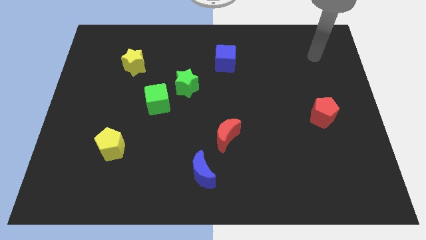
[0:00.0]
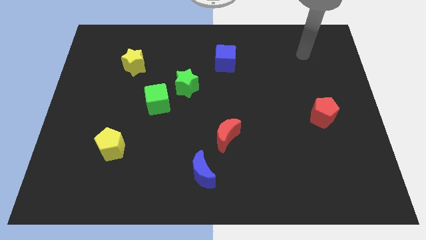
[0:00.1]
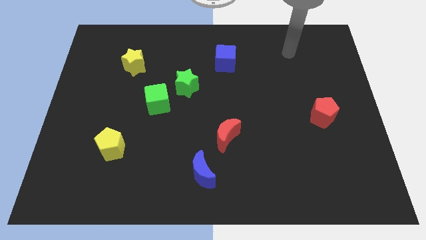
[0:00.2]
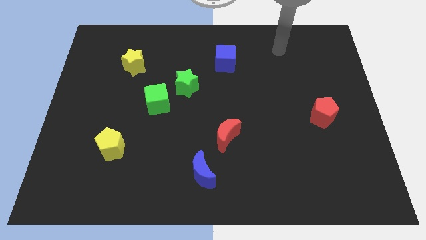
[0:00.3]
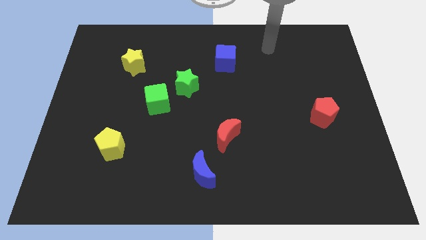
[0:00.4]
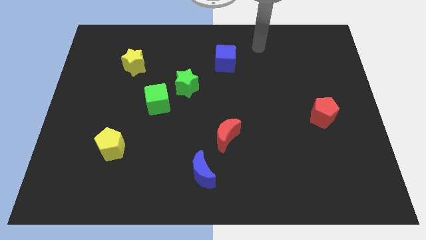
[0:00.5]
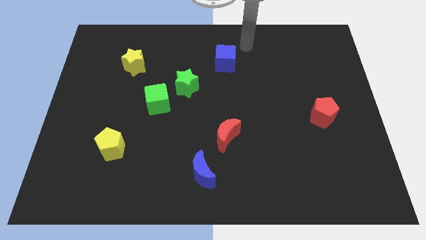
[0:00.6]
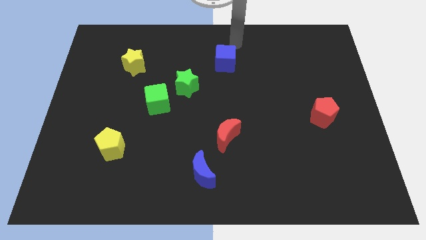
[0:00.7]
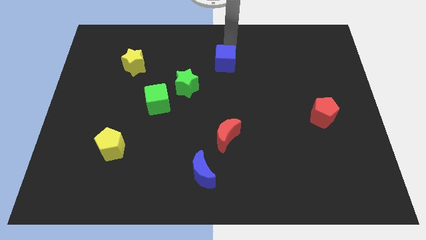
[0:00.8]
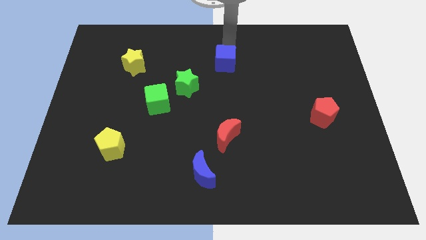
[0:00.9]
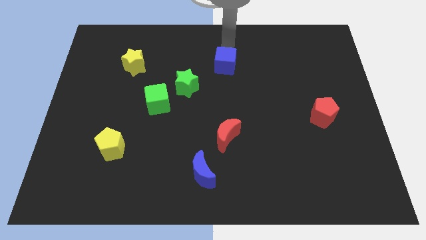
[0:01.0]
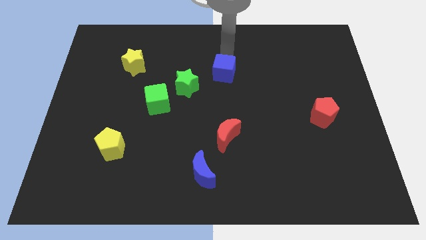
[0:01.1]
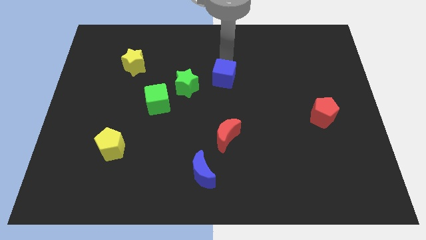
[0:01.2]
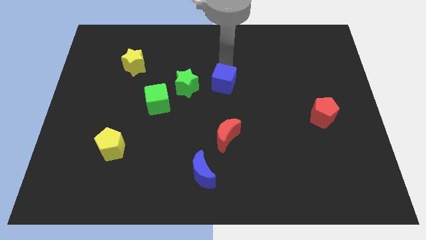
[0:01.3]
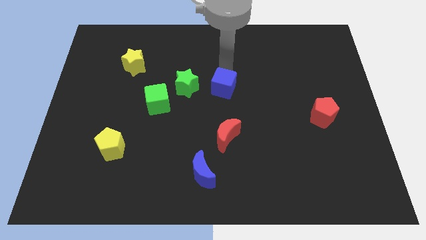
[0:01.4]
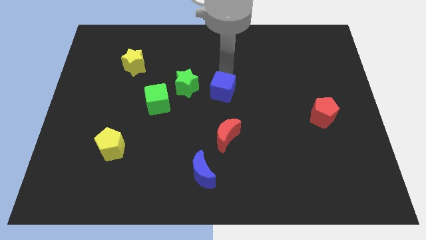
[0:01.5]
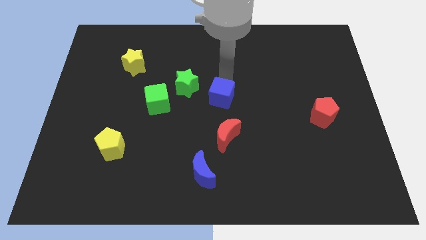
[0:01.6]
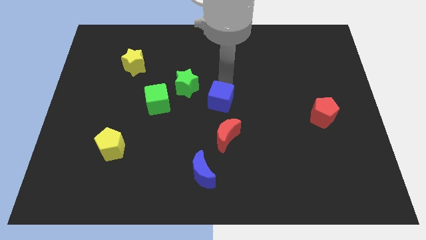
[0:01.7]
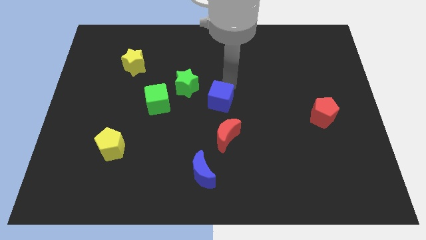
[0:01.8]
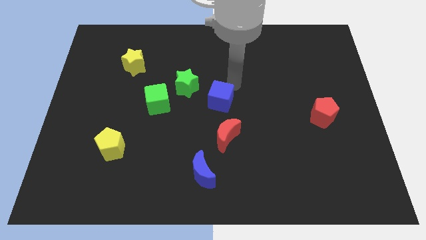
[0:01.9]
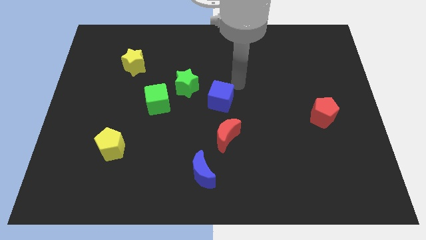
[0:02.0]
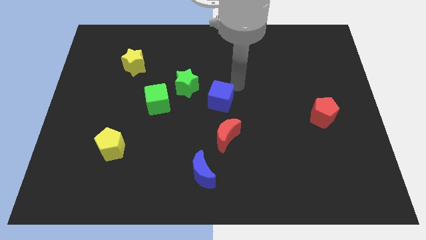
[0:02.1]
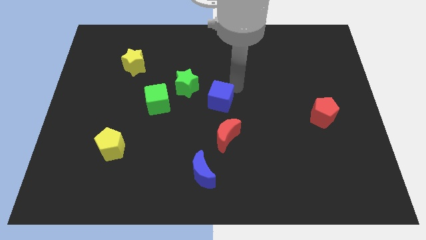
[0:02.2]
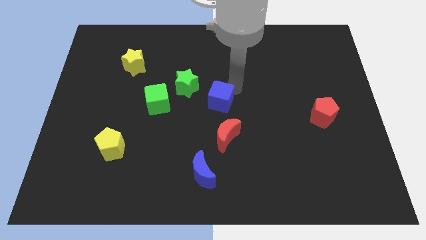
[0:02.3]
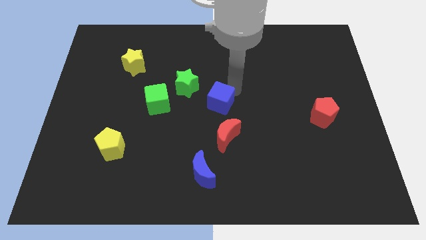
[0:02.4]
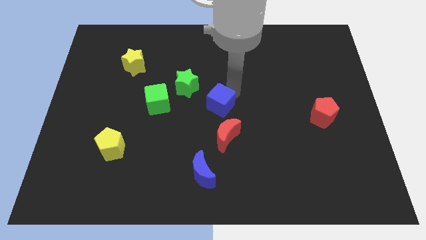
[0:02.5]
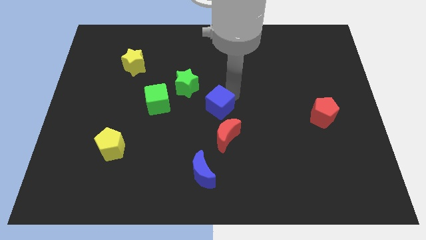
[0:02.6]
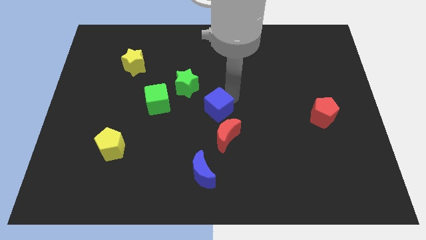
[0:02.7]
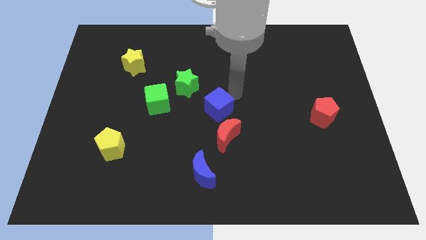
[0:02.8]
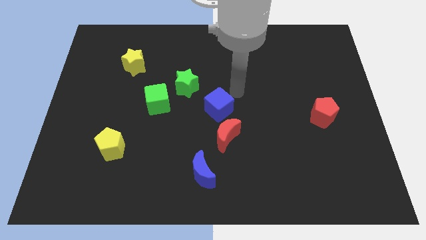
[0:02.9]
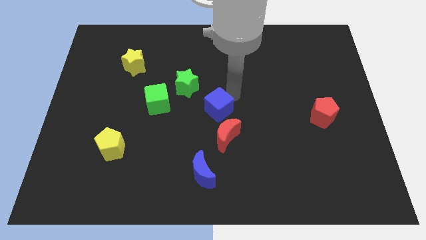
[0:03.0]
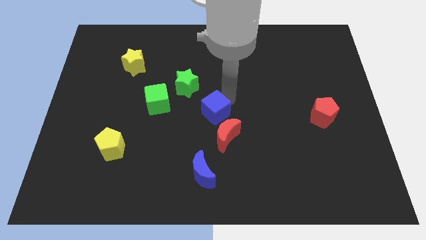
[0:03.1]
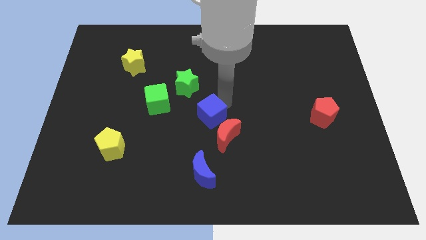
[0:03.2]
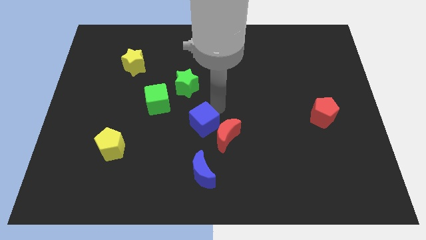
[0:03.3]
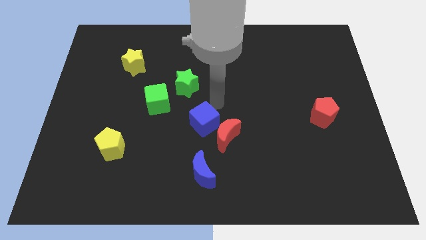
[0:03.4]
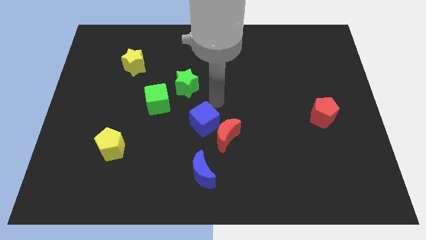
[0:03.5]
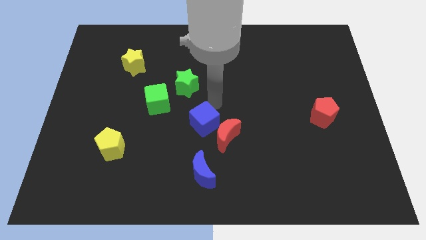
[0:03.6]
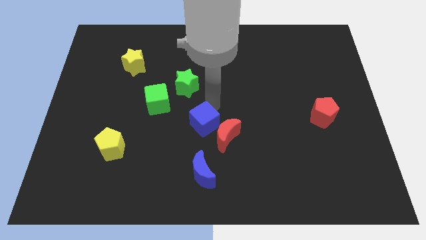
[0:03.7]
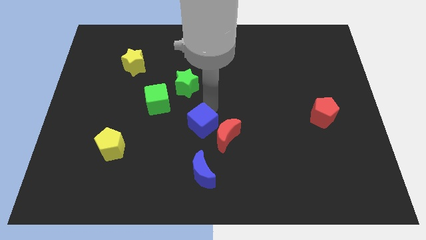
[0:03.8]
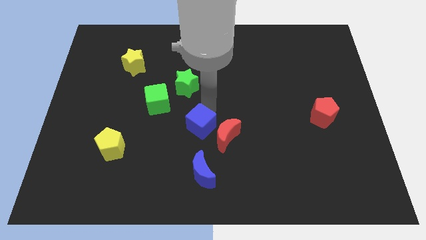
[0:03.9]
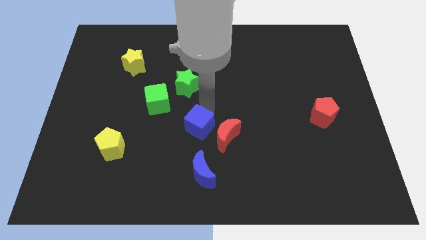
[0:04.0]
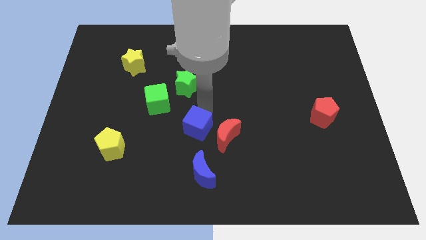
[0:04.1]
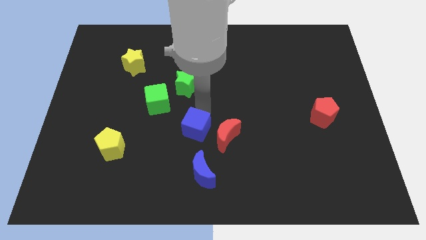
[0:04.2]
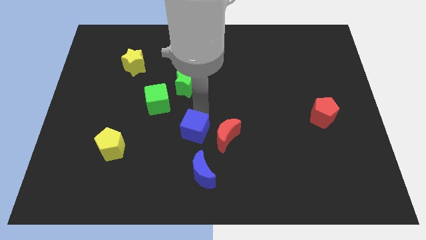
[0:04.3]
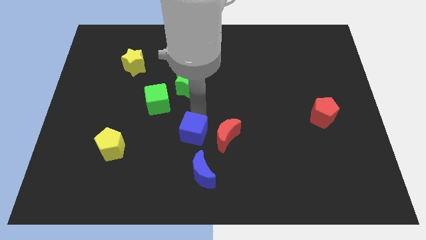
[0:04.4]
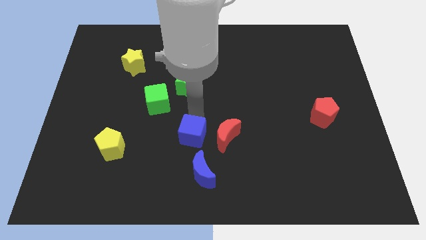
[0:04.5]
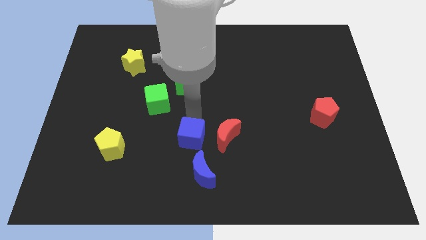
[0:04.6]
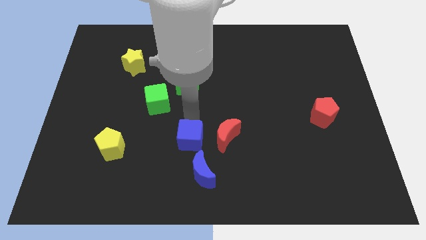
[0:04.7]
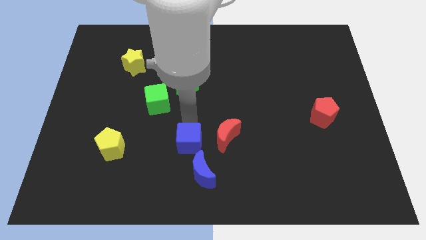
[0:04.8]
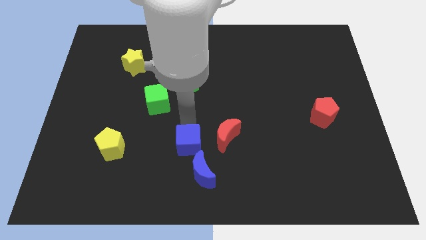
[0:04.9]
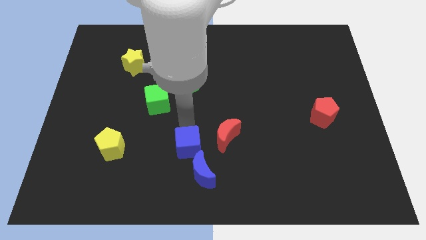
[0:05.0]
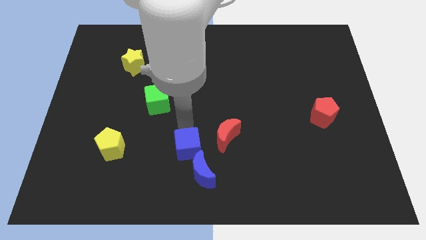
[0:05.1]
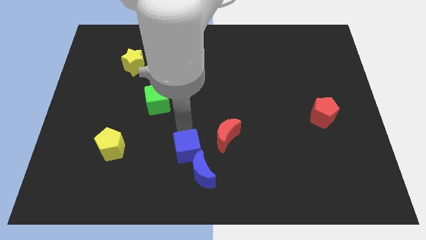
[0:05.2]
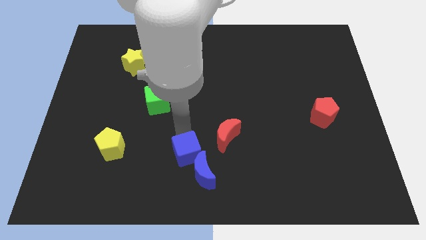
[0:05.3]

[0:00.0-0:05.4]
put the blue cube close to the blue moon

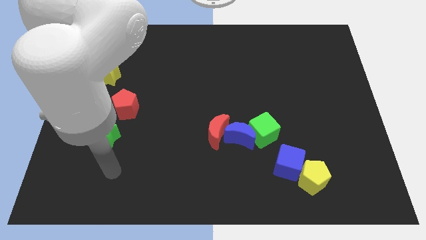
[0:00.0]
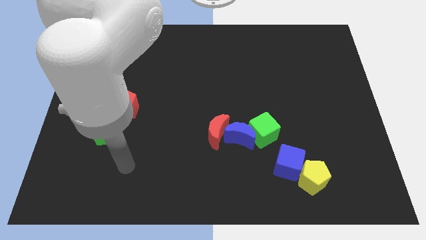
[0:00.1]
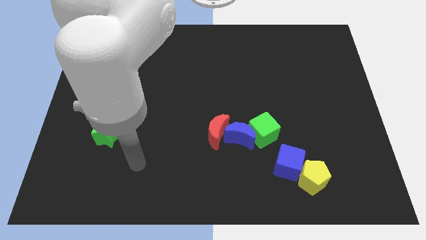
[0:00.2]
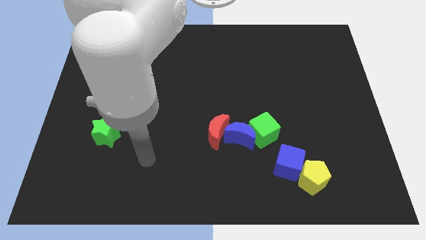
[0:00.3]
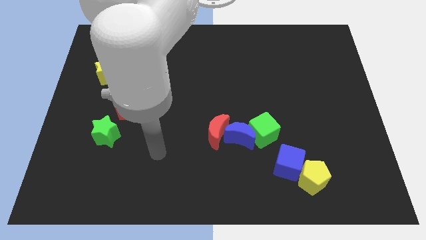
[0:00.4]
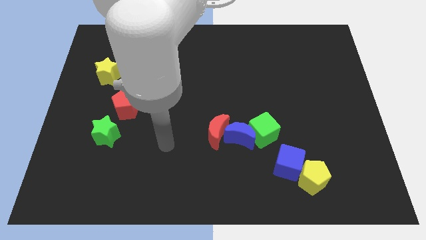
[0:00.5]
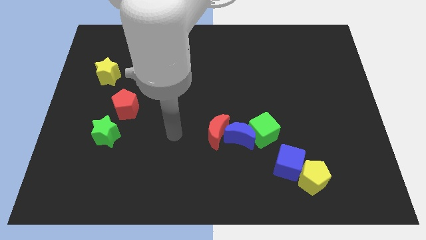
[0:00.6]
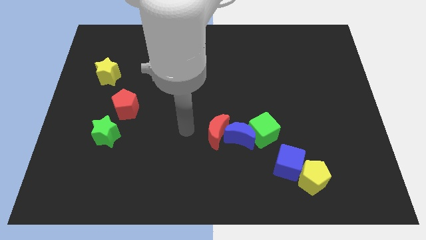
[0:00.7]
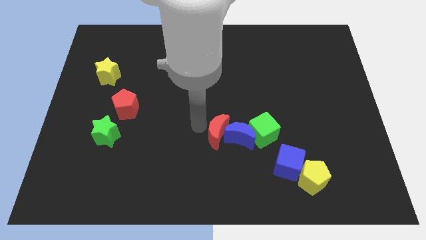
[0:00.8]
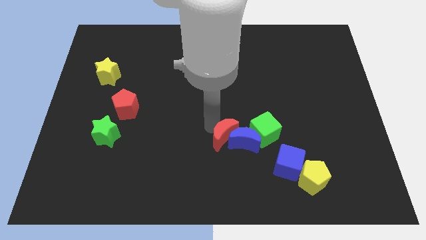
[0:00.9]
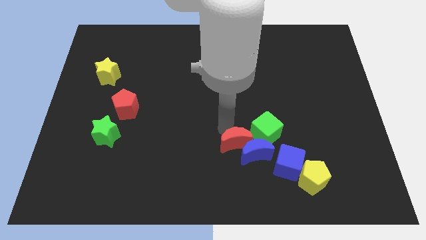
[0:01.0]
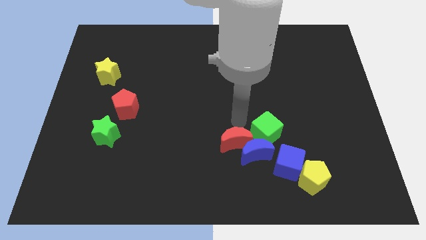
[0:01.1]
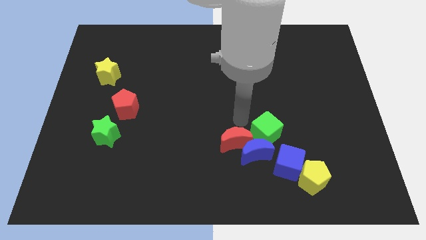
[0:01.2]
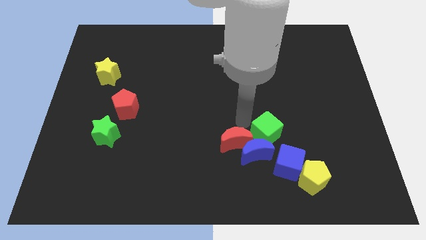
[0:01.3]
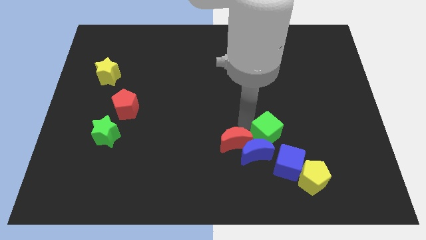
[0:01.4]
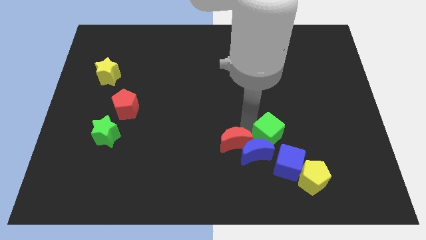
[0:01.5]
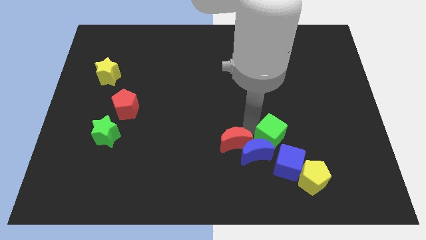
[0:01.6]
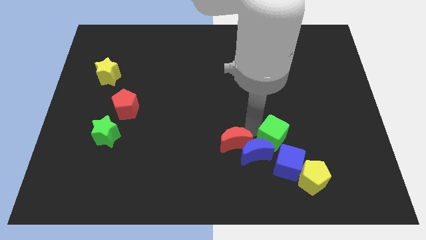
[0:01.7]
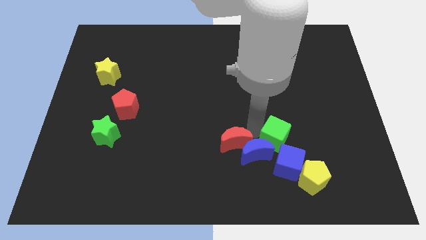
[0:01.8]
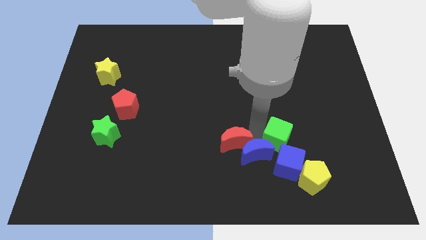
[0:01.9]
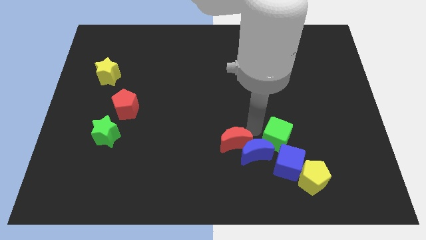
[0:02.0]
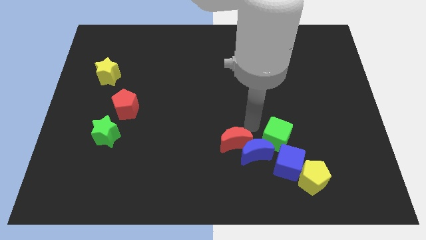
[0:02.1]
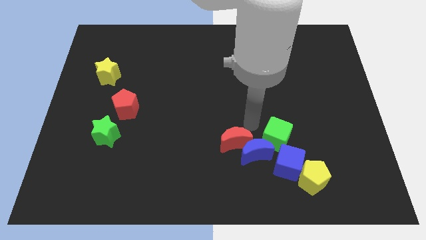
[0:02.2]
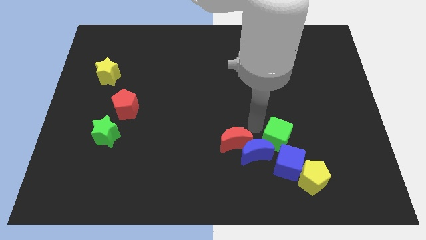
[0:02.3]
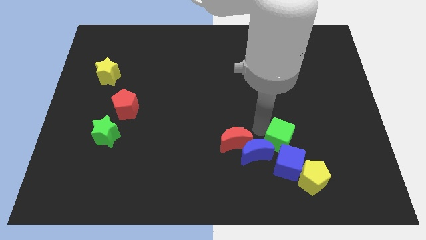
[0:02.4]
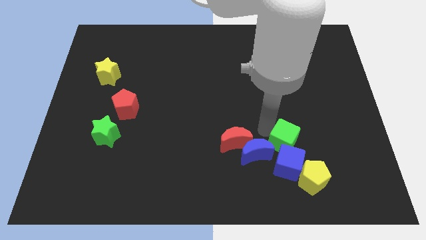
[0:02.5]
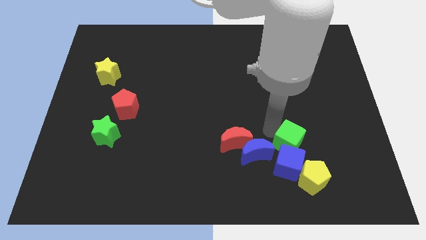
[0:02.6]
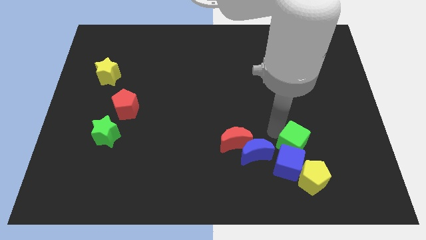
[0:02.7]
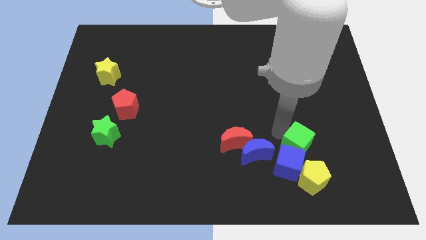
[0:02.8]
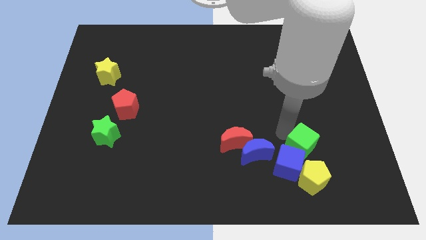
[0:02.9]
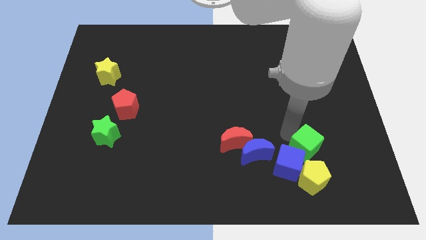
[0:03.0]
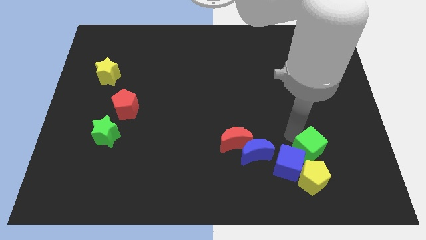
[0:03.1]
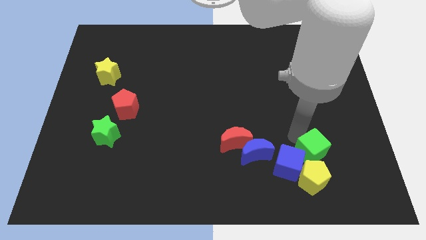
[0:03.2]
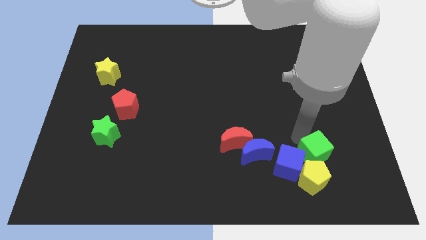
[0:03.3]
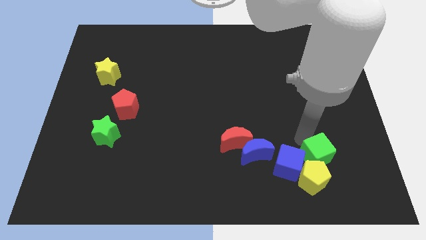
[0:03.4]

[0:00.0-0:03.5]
move the green cube next to the yellow pentagon
